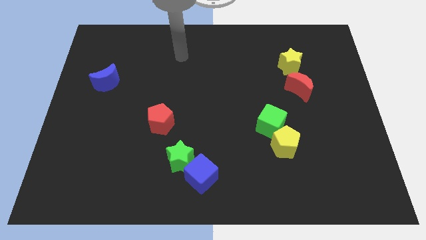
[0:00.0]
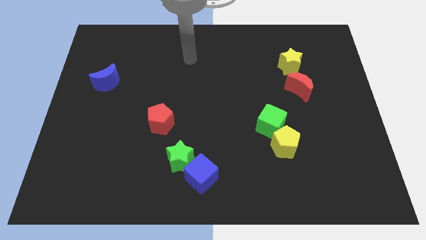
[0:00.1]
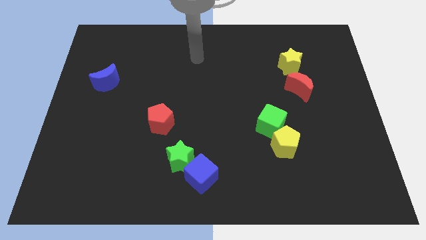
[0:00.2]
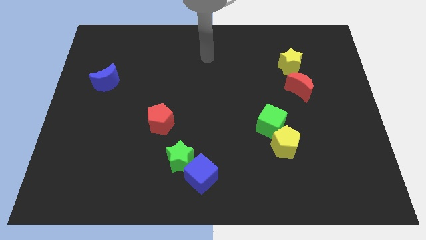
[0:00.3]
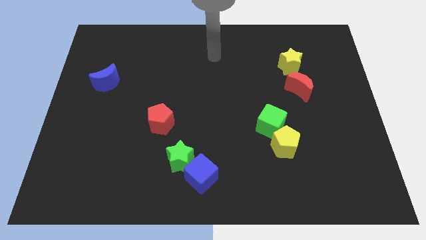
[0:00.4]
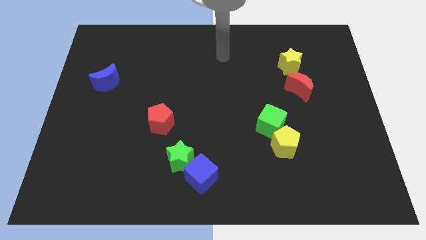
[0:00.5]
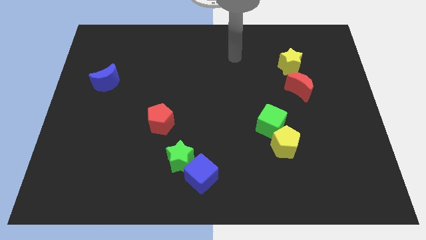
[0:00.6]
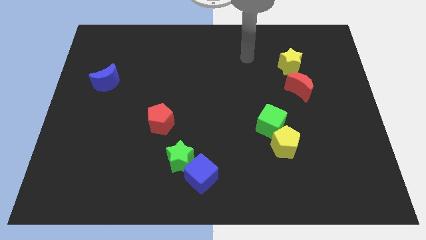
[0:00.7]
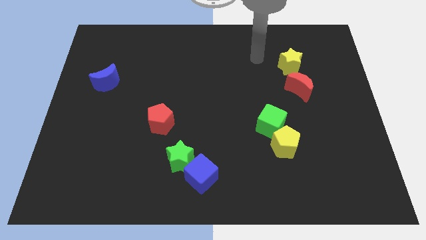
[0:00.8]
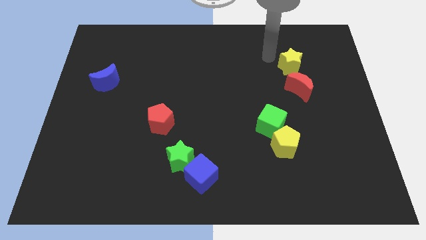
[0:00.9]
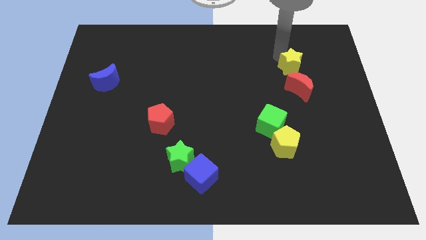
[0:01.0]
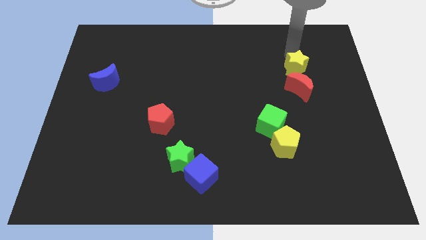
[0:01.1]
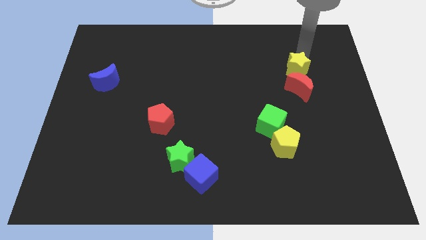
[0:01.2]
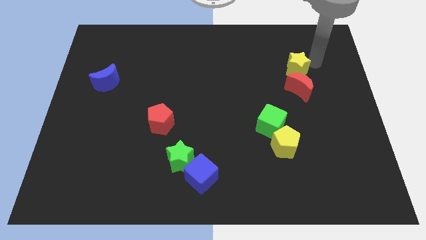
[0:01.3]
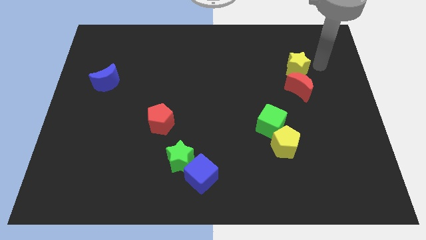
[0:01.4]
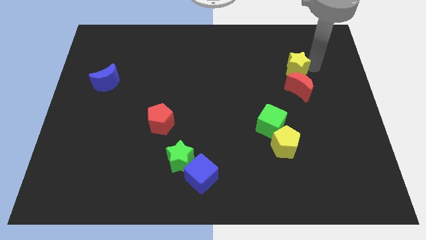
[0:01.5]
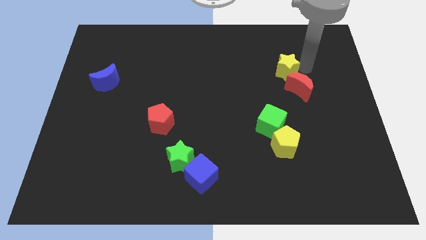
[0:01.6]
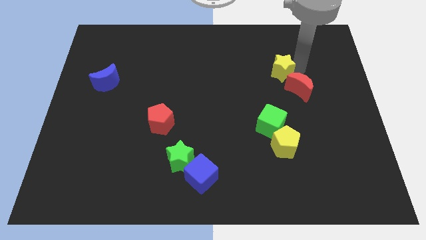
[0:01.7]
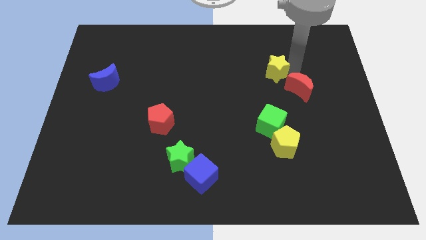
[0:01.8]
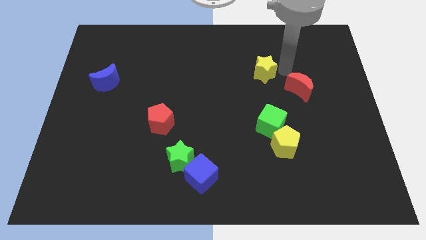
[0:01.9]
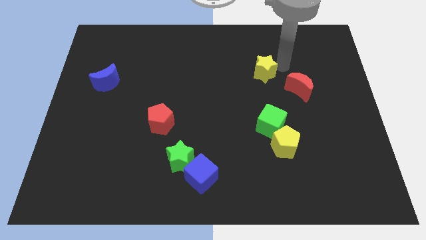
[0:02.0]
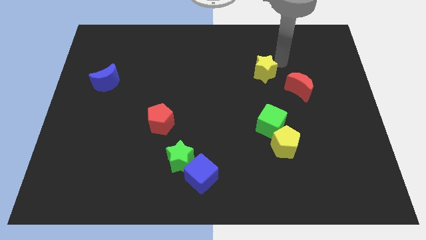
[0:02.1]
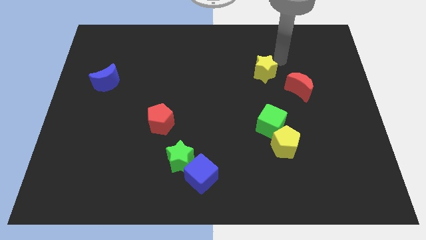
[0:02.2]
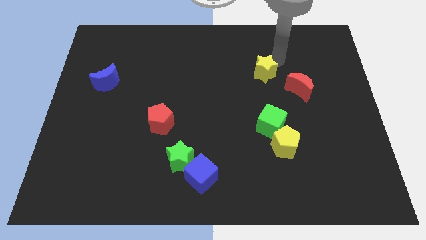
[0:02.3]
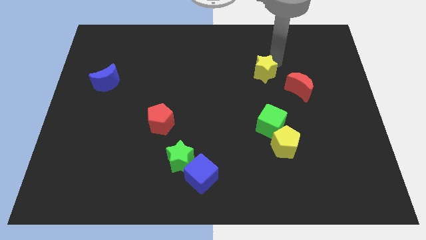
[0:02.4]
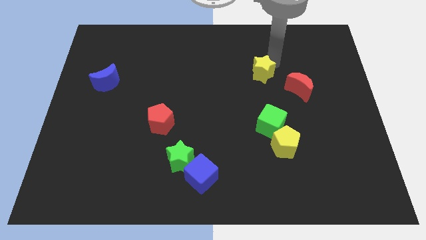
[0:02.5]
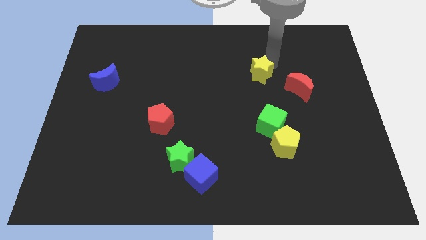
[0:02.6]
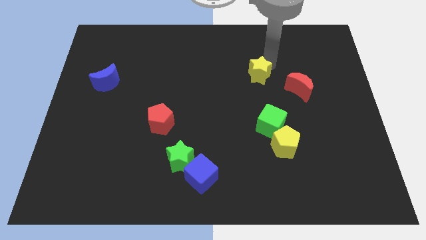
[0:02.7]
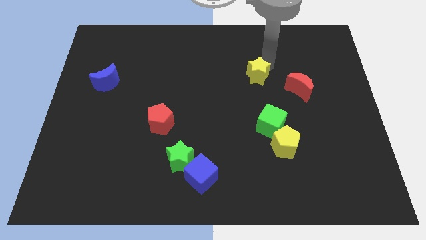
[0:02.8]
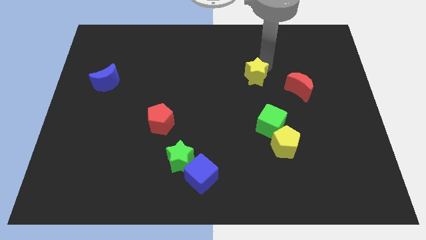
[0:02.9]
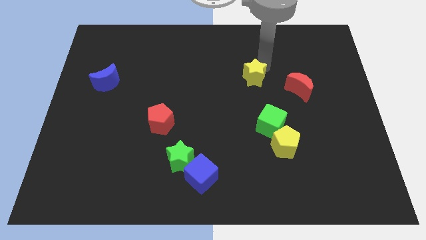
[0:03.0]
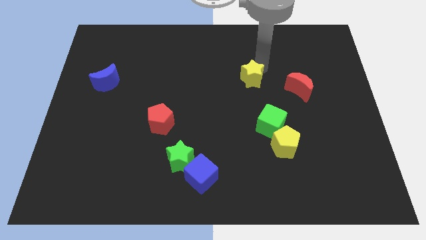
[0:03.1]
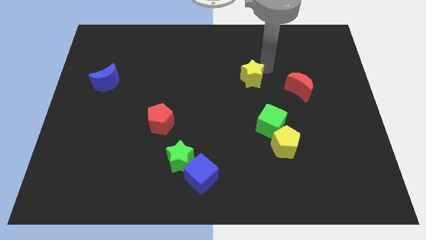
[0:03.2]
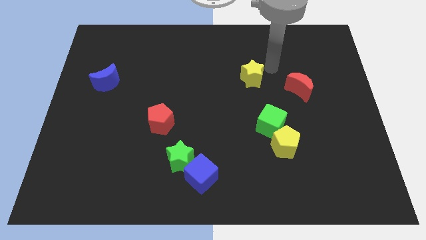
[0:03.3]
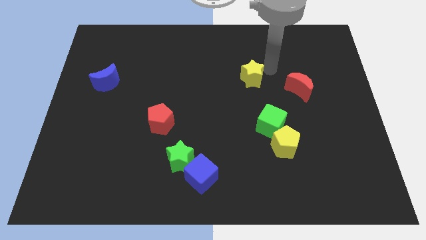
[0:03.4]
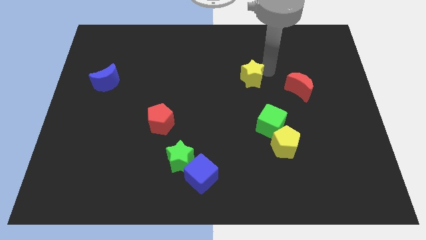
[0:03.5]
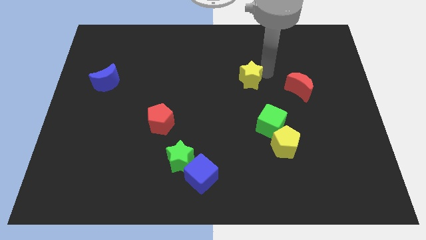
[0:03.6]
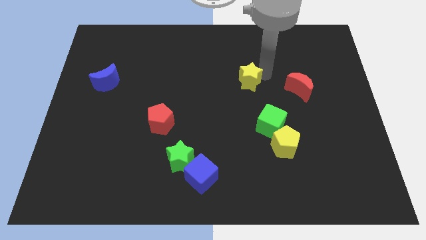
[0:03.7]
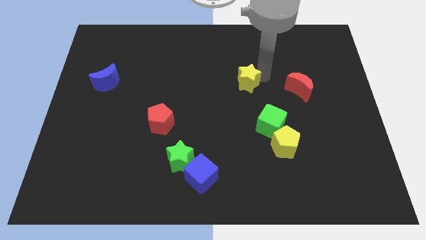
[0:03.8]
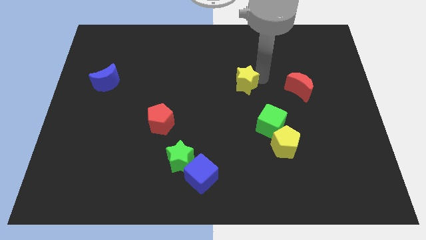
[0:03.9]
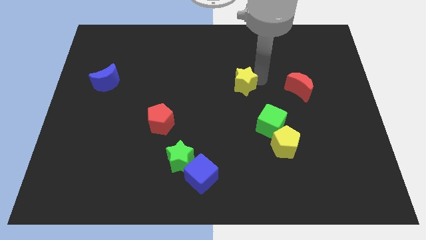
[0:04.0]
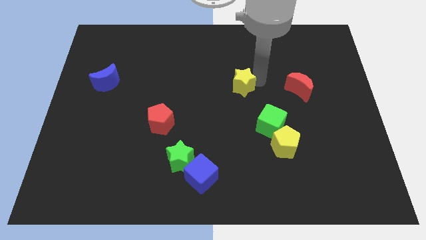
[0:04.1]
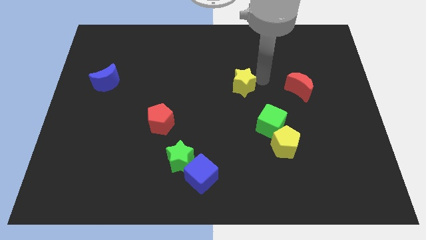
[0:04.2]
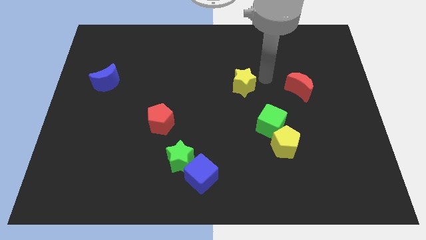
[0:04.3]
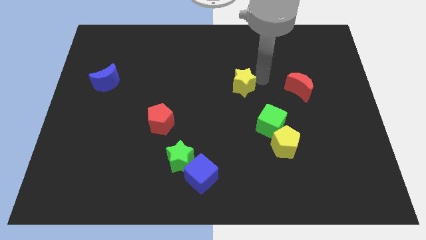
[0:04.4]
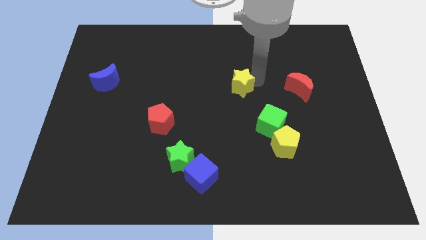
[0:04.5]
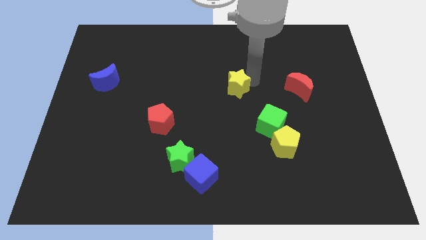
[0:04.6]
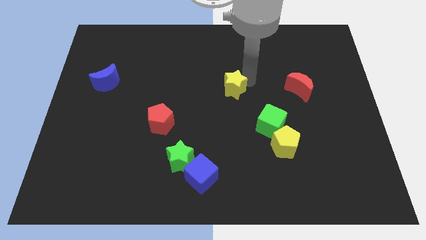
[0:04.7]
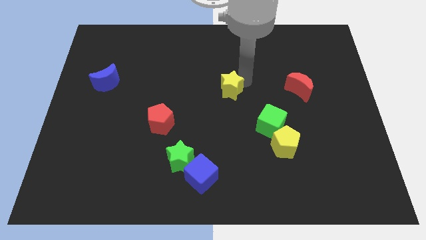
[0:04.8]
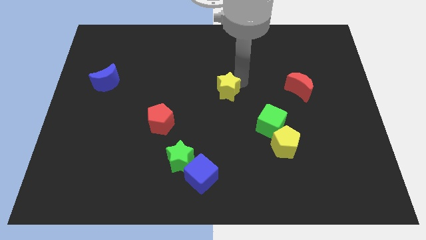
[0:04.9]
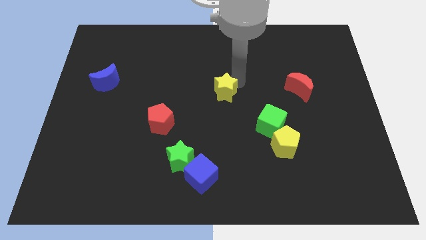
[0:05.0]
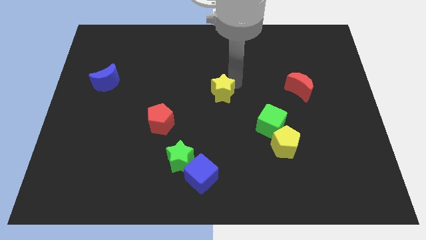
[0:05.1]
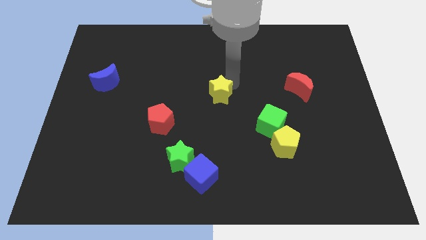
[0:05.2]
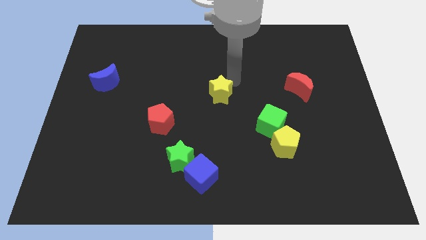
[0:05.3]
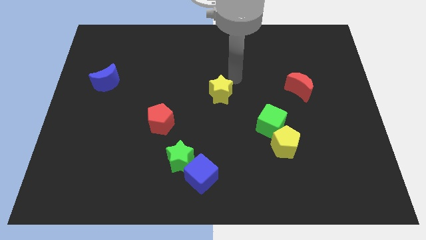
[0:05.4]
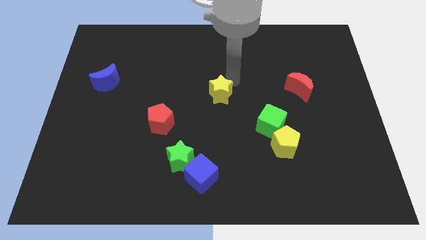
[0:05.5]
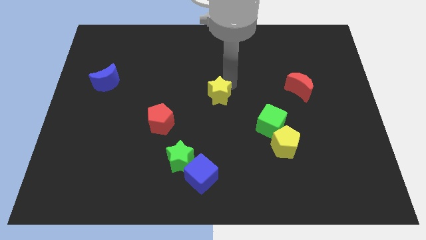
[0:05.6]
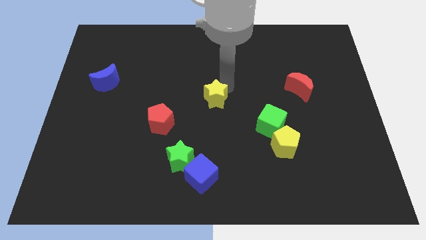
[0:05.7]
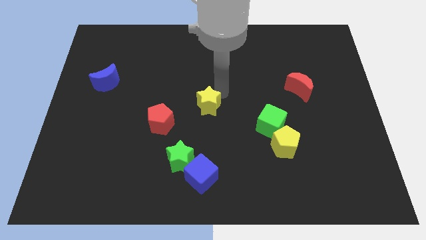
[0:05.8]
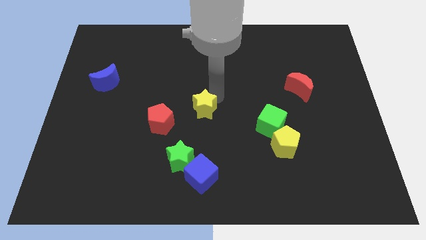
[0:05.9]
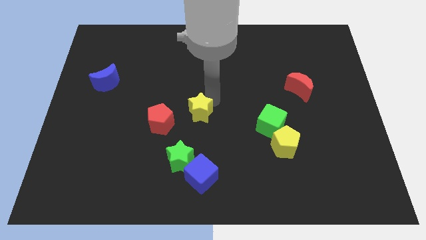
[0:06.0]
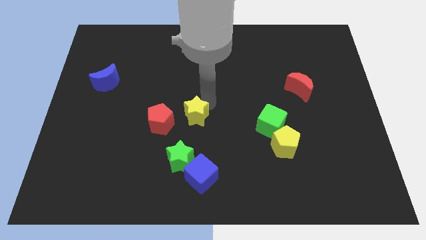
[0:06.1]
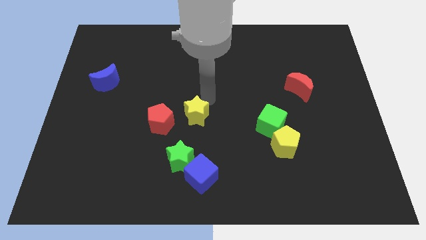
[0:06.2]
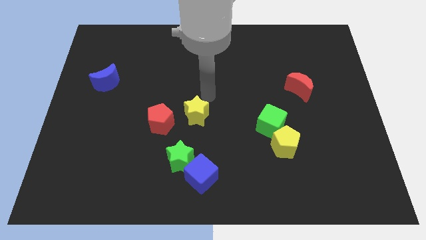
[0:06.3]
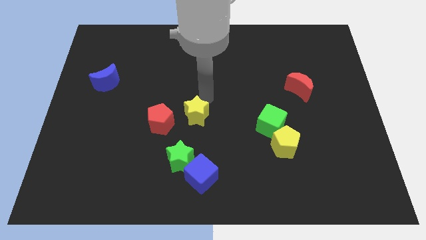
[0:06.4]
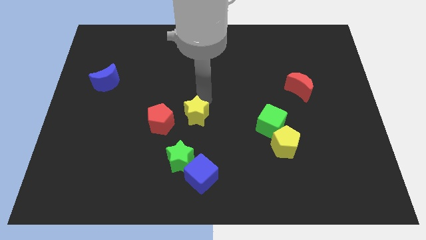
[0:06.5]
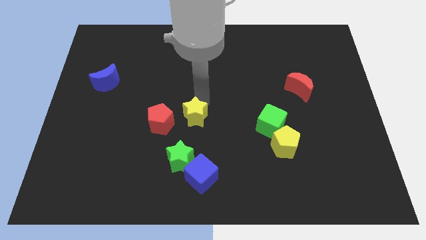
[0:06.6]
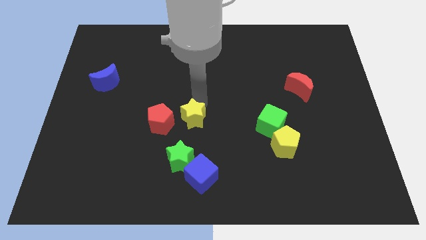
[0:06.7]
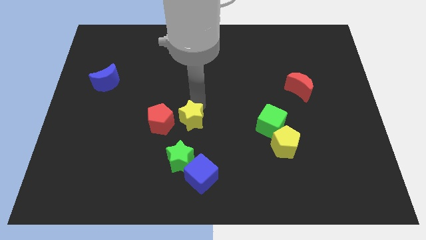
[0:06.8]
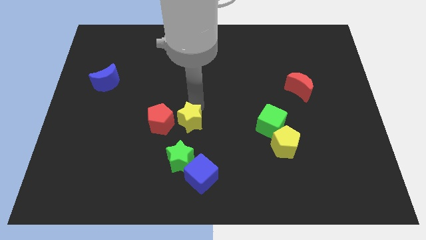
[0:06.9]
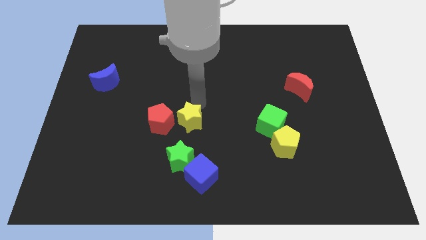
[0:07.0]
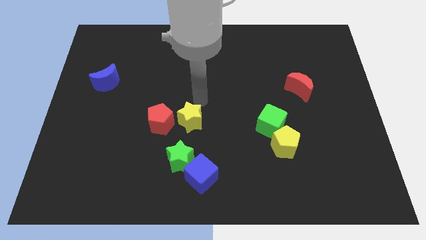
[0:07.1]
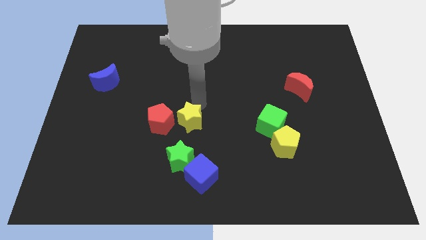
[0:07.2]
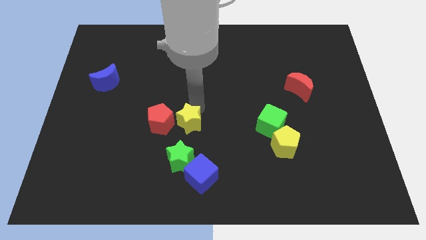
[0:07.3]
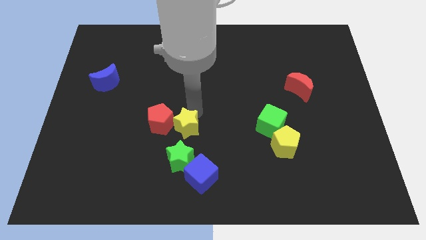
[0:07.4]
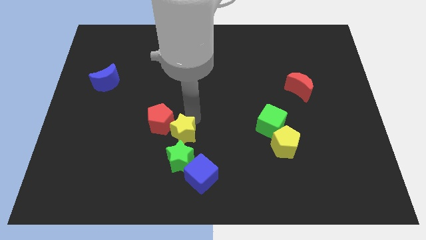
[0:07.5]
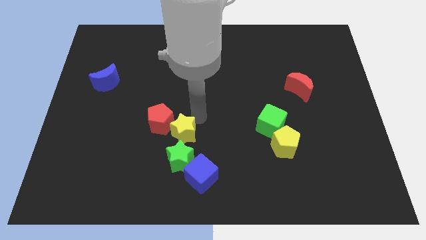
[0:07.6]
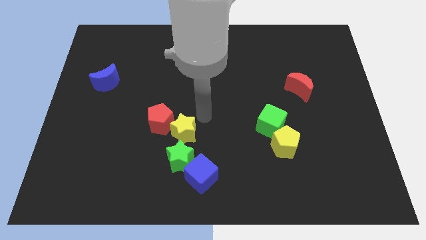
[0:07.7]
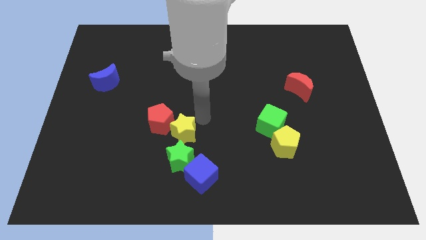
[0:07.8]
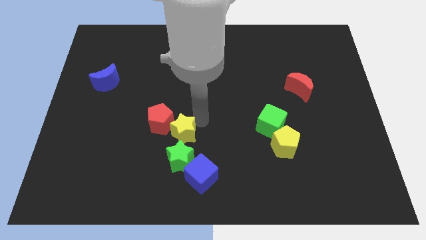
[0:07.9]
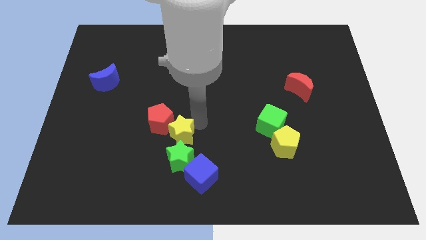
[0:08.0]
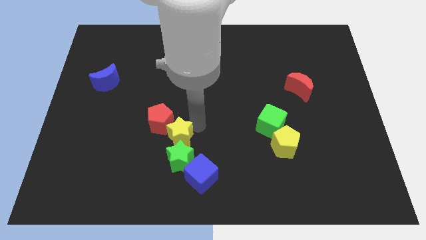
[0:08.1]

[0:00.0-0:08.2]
slide the yellow star below the red pentagon
